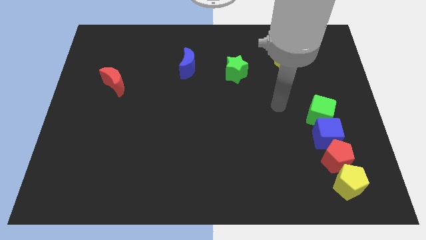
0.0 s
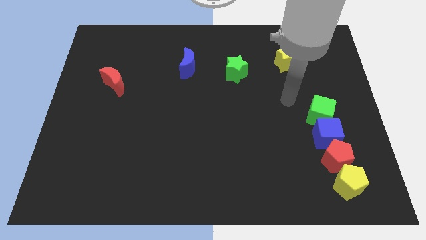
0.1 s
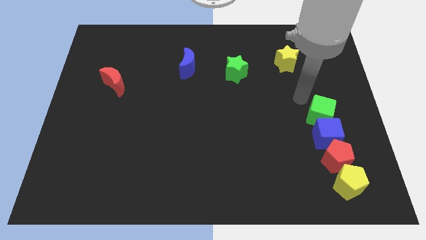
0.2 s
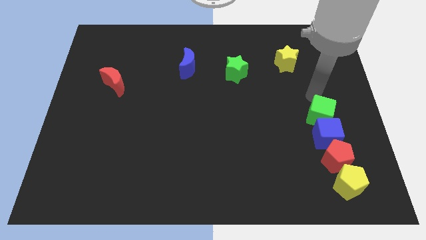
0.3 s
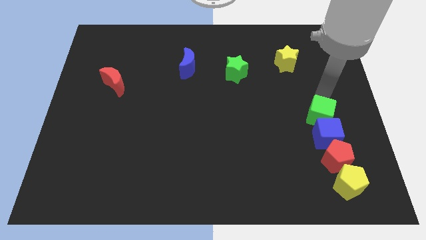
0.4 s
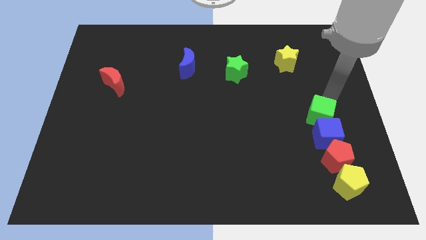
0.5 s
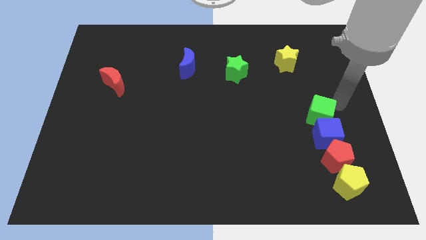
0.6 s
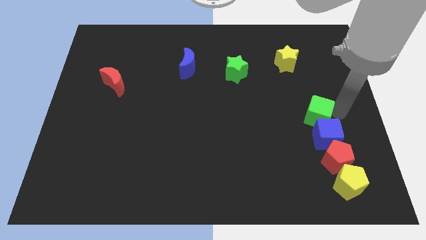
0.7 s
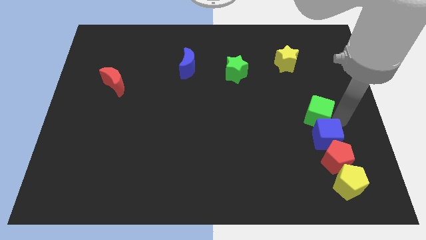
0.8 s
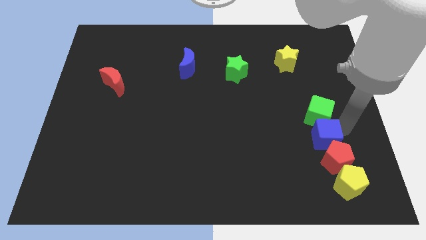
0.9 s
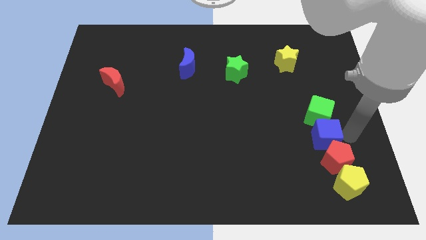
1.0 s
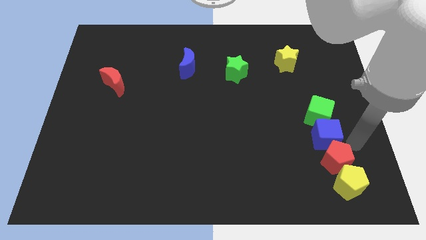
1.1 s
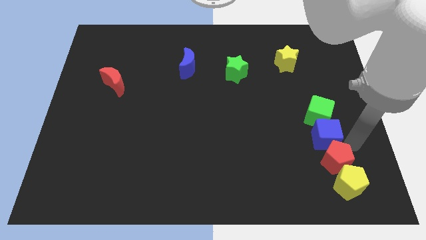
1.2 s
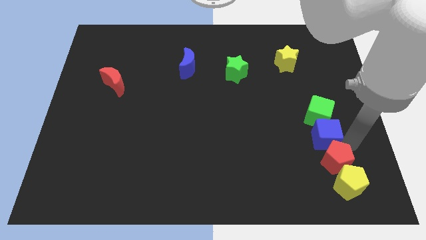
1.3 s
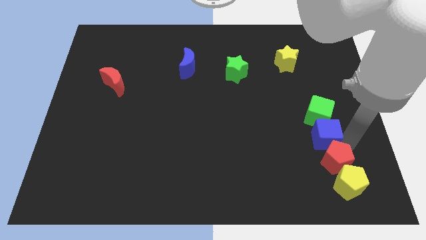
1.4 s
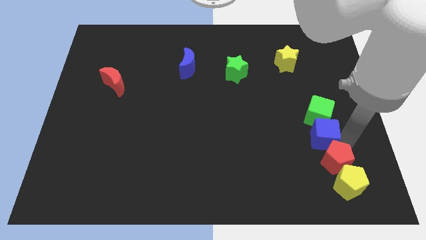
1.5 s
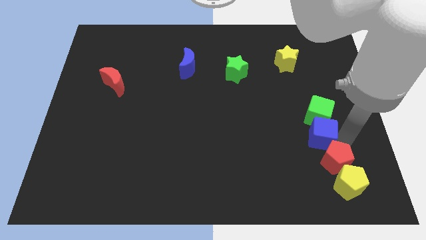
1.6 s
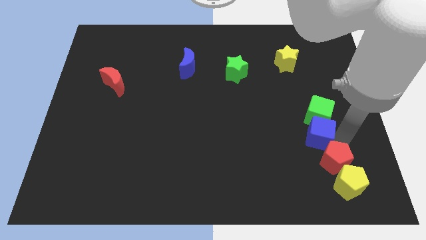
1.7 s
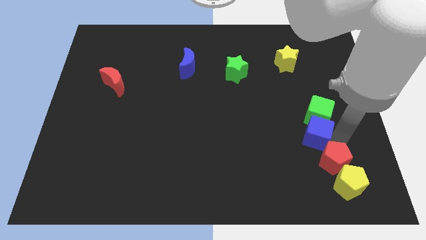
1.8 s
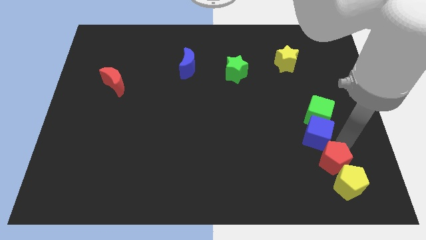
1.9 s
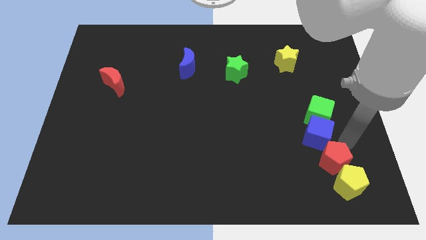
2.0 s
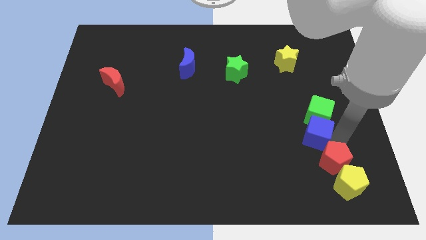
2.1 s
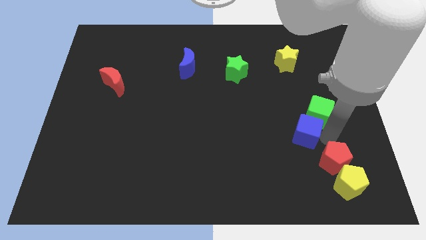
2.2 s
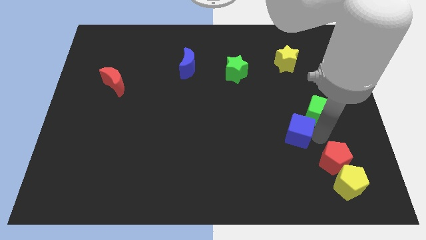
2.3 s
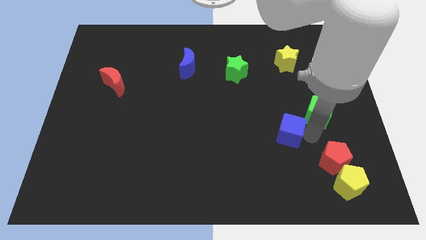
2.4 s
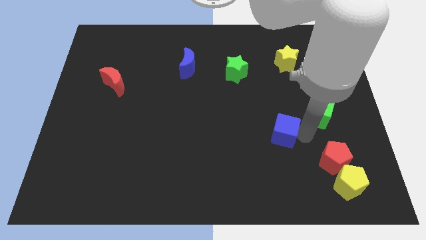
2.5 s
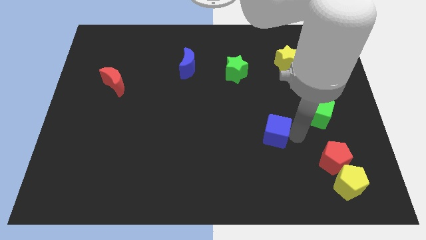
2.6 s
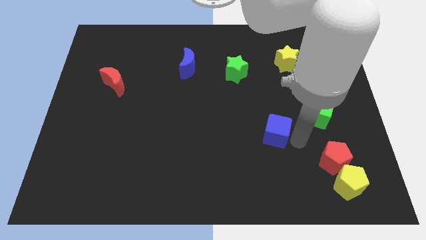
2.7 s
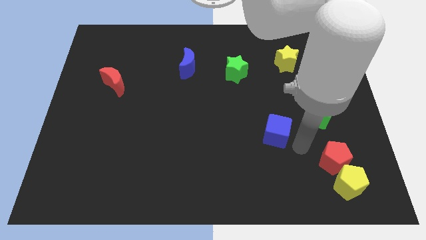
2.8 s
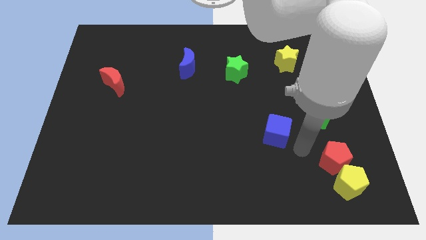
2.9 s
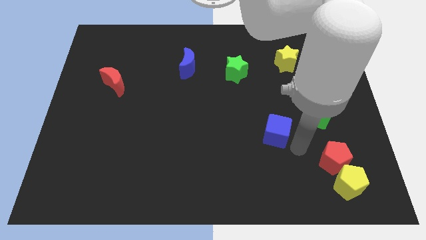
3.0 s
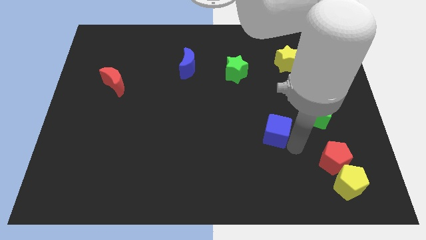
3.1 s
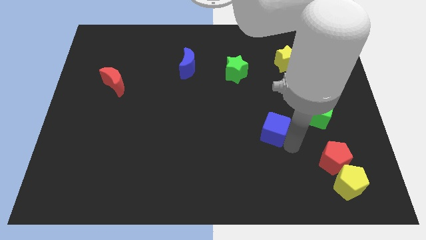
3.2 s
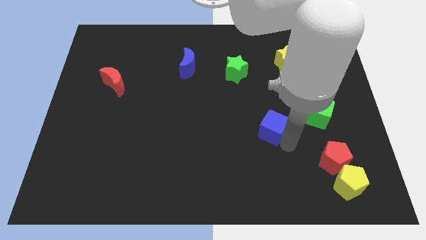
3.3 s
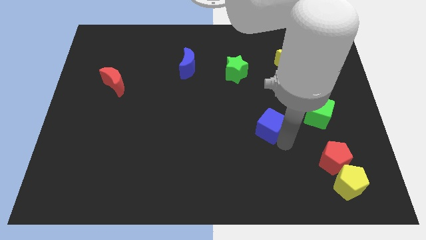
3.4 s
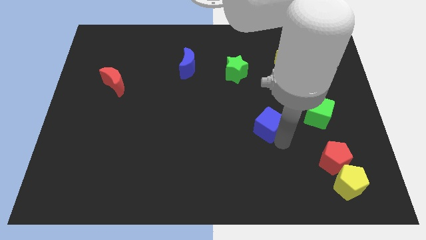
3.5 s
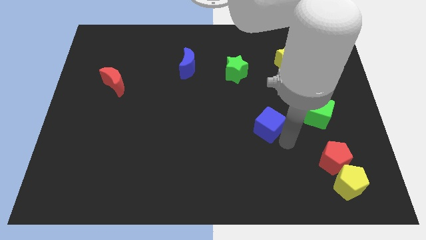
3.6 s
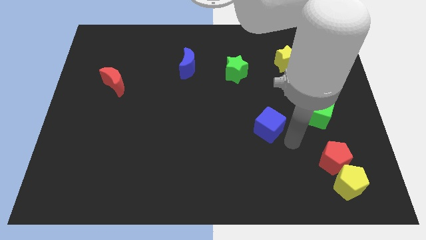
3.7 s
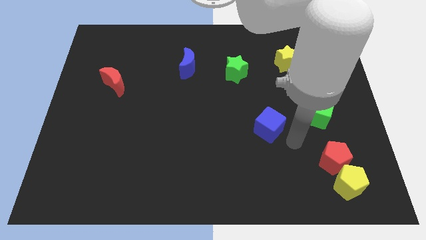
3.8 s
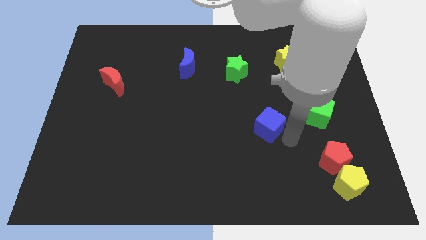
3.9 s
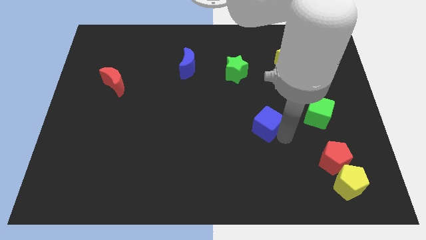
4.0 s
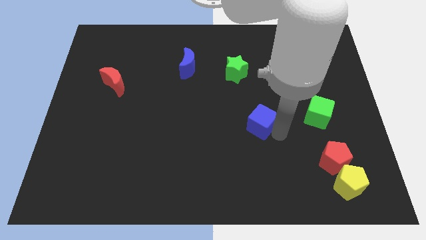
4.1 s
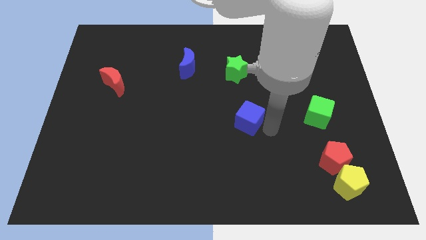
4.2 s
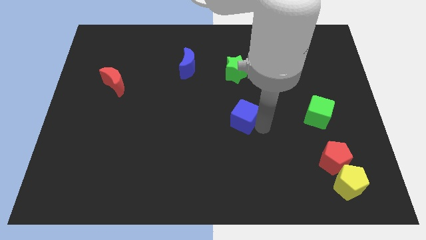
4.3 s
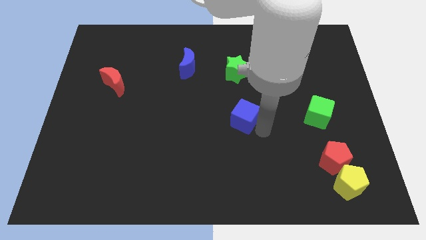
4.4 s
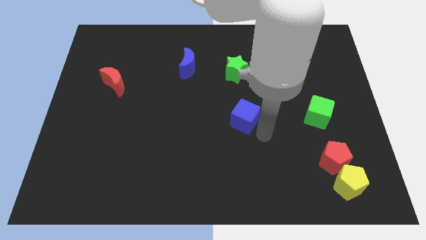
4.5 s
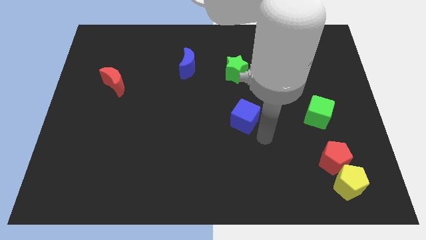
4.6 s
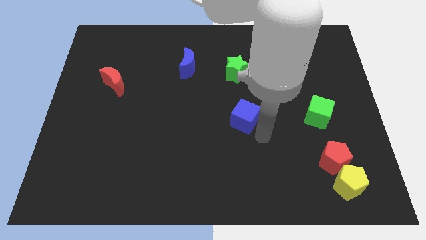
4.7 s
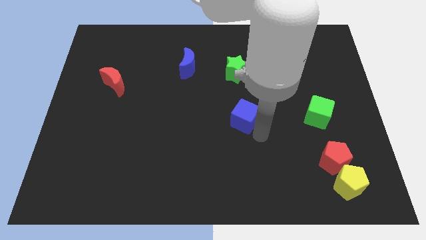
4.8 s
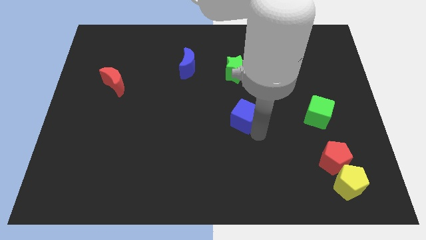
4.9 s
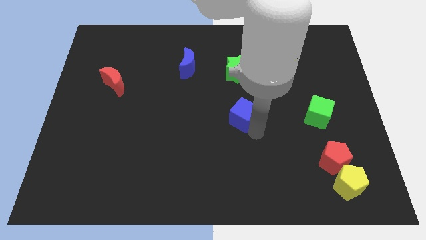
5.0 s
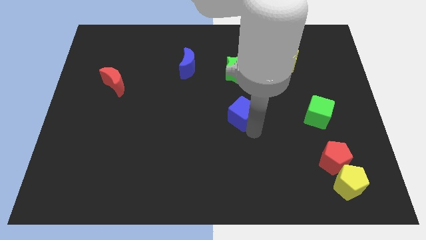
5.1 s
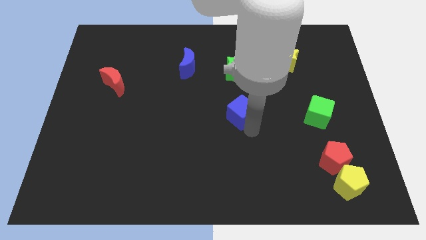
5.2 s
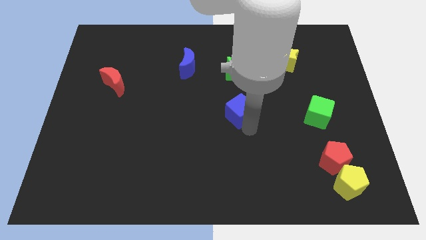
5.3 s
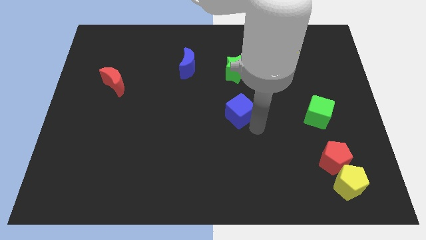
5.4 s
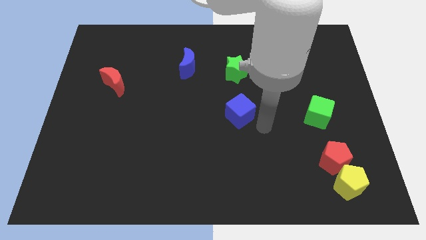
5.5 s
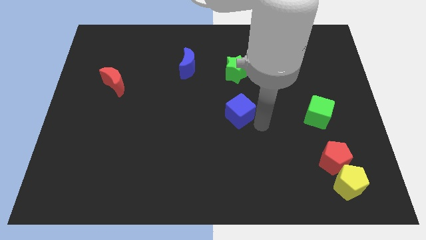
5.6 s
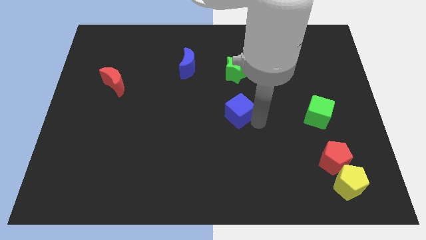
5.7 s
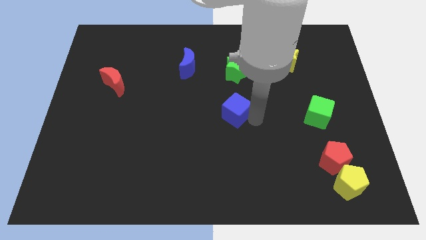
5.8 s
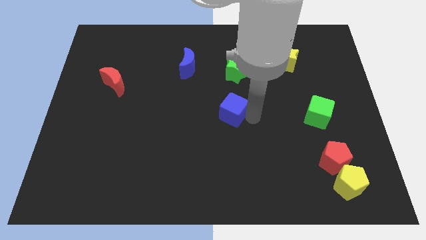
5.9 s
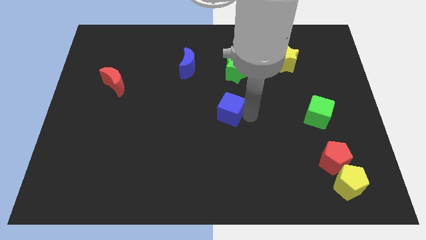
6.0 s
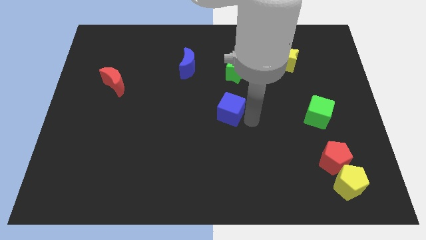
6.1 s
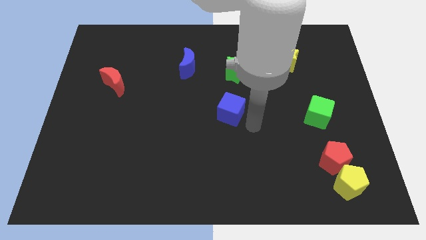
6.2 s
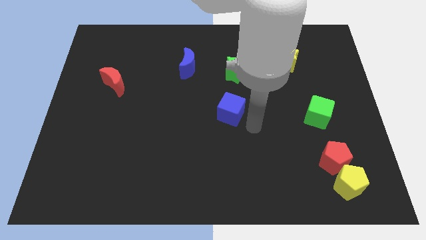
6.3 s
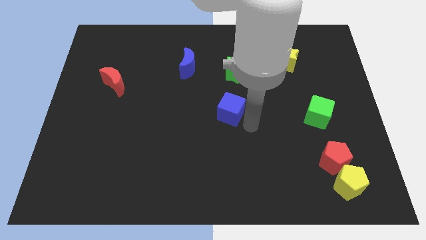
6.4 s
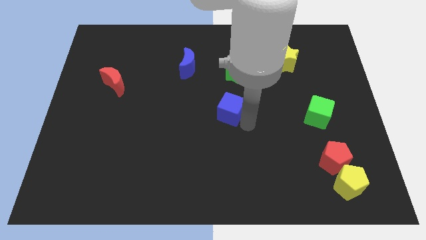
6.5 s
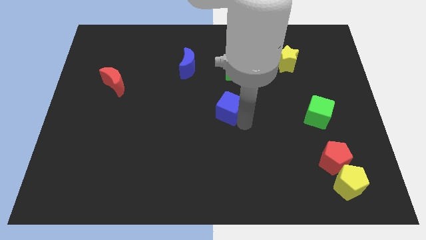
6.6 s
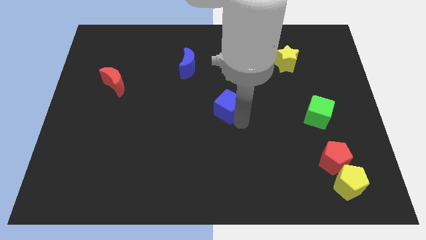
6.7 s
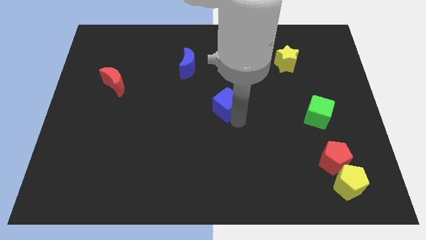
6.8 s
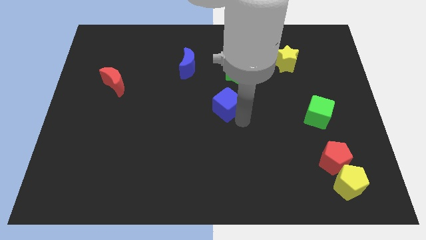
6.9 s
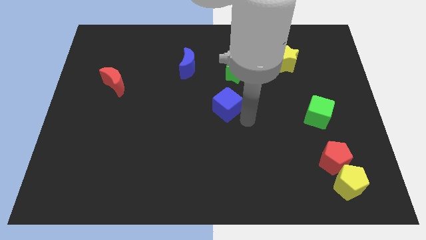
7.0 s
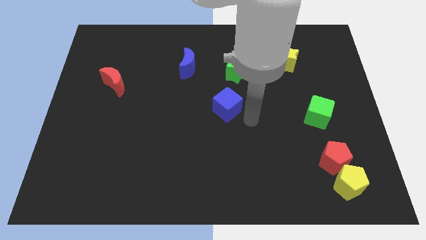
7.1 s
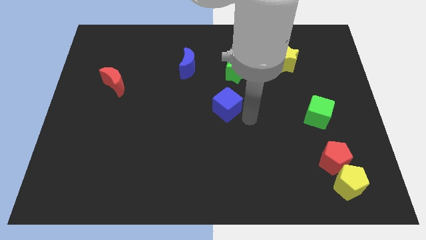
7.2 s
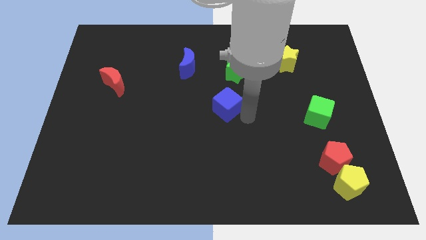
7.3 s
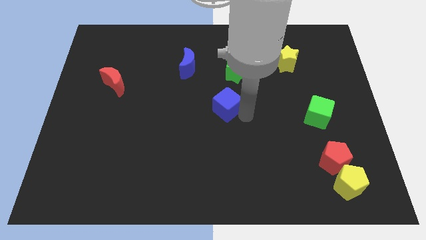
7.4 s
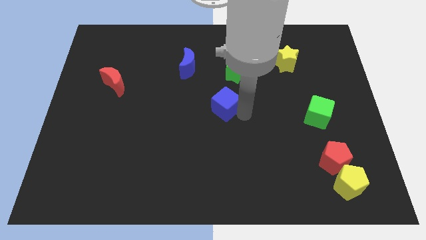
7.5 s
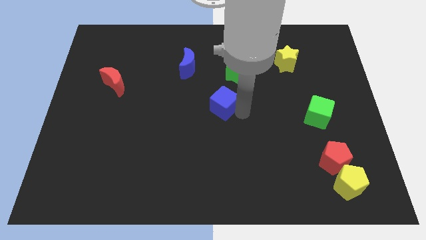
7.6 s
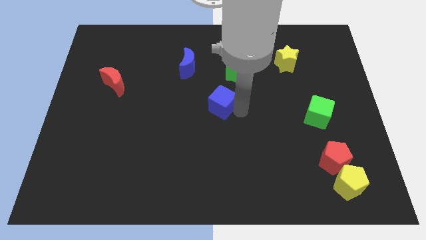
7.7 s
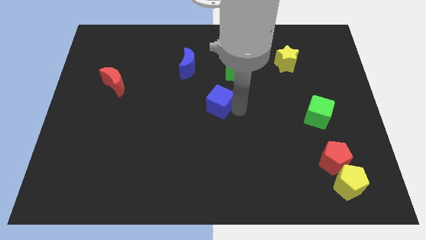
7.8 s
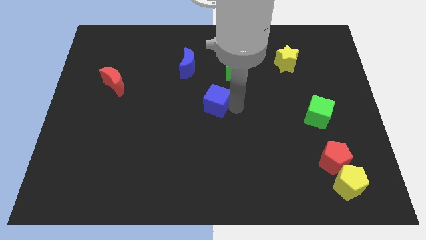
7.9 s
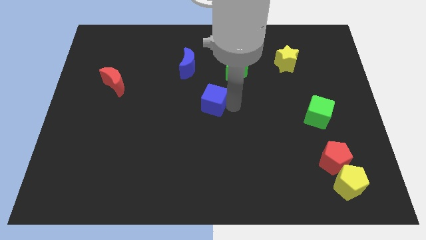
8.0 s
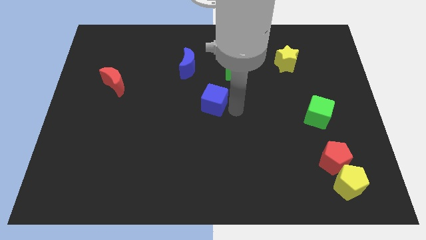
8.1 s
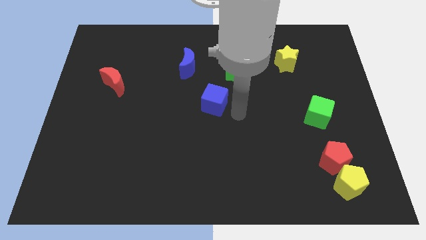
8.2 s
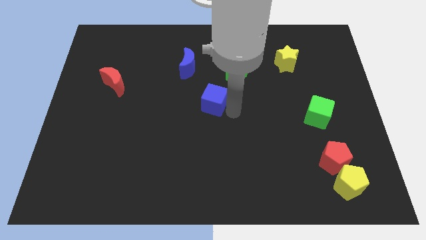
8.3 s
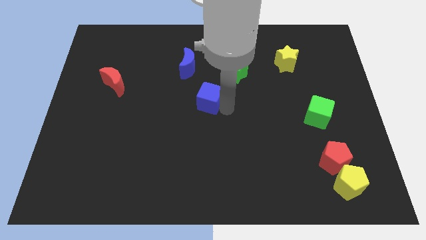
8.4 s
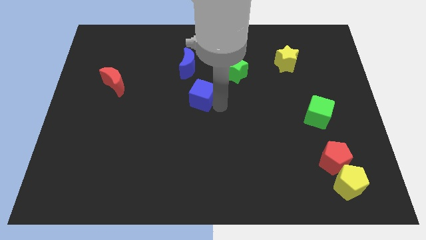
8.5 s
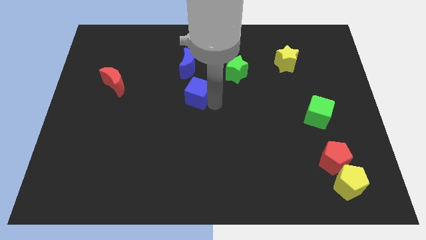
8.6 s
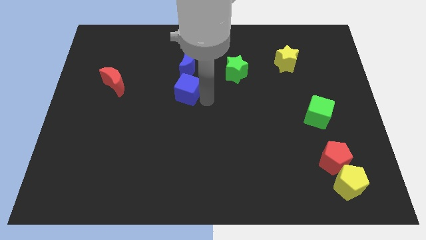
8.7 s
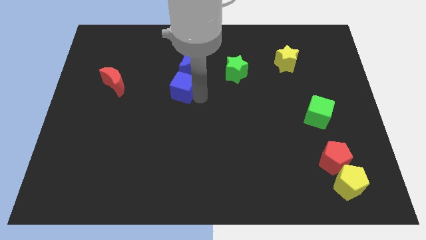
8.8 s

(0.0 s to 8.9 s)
put the blue cube diagonally down and to the left of the blue moon
